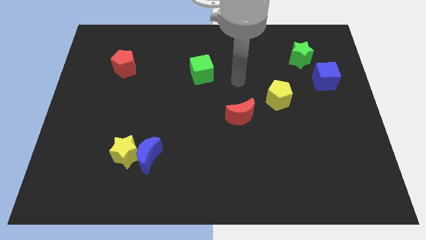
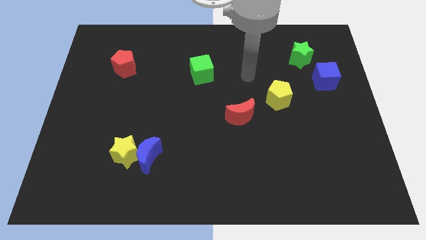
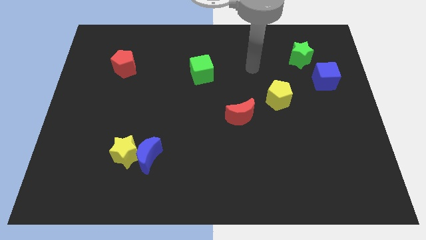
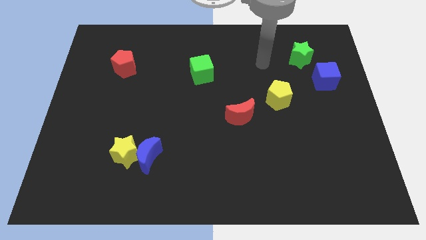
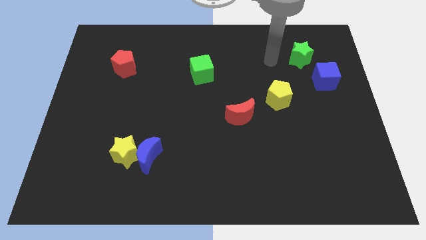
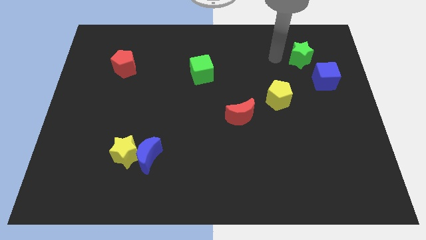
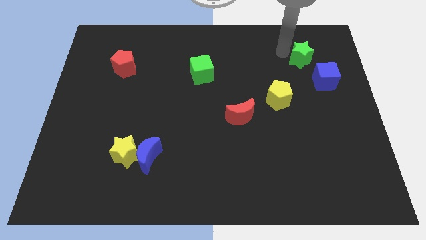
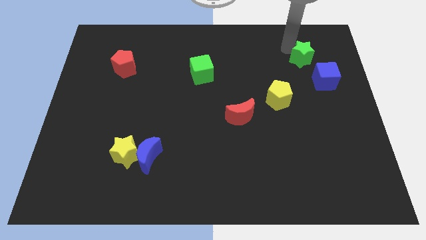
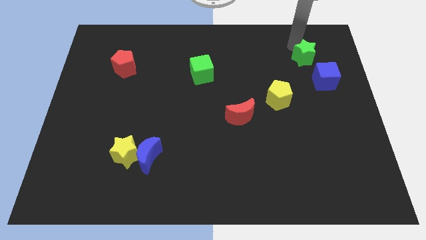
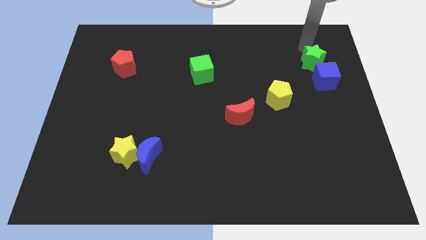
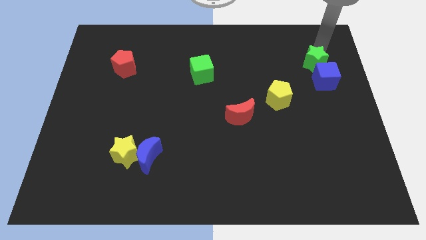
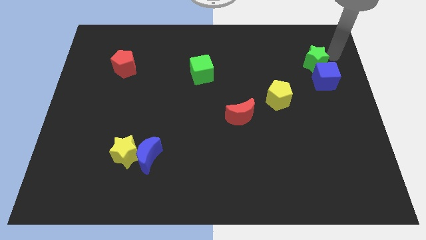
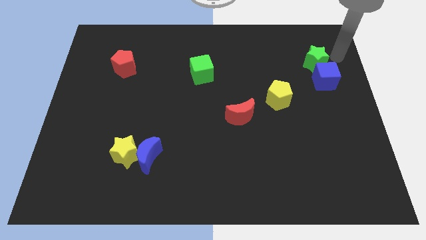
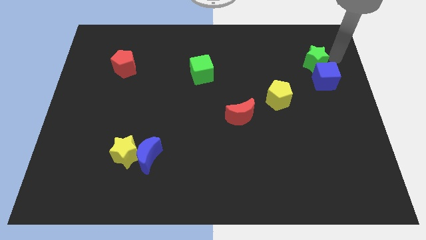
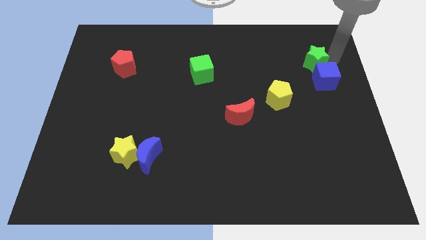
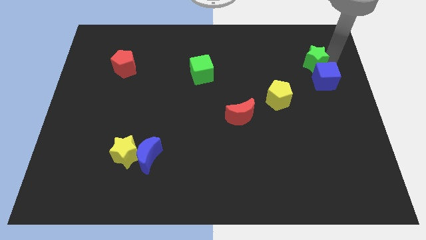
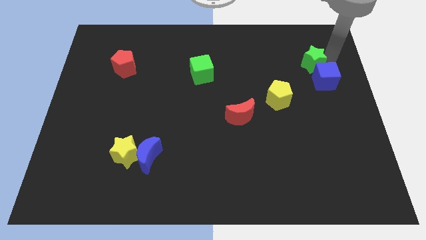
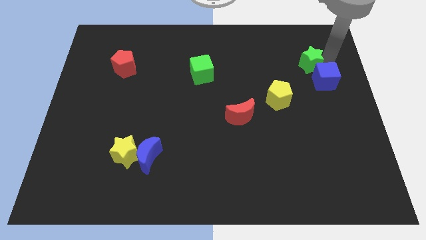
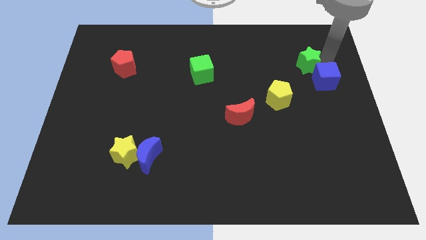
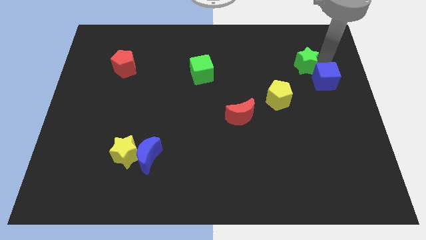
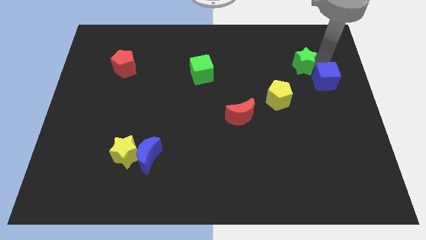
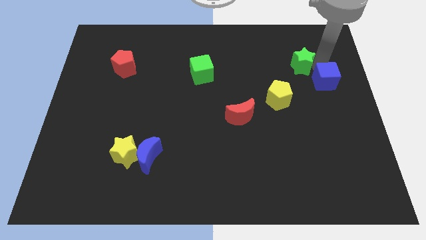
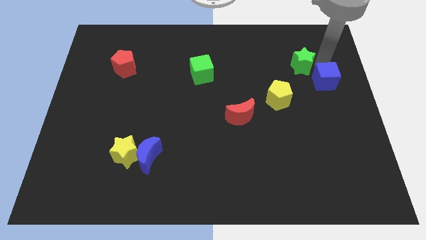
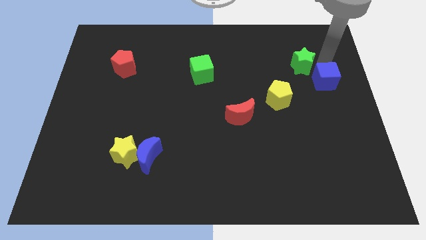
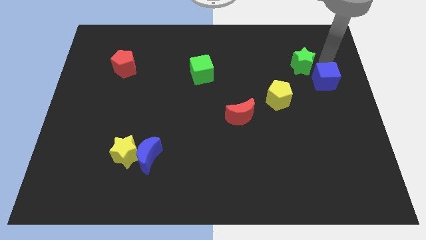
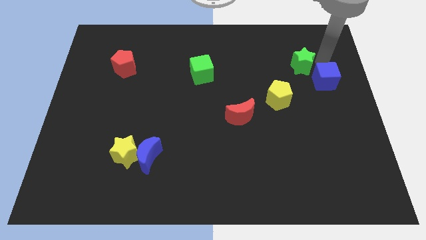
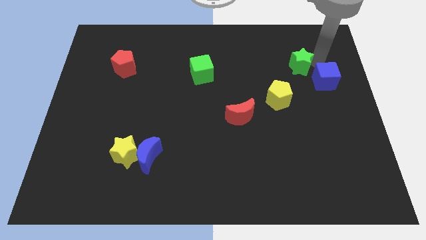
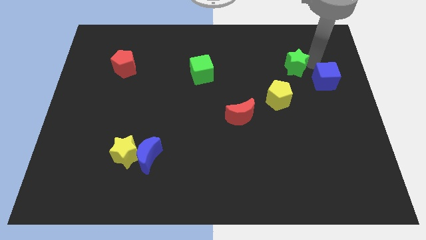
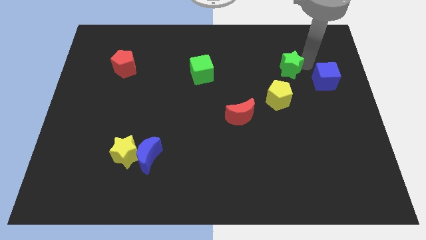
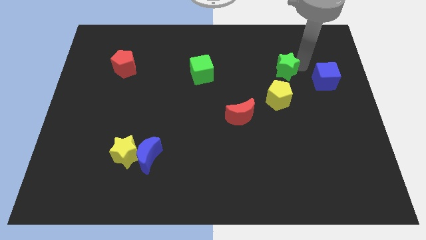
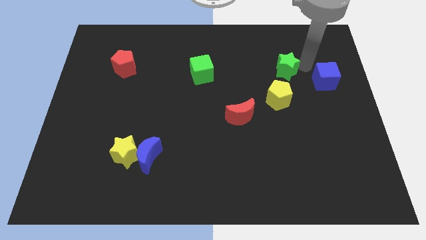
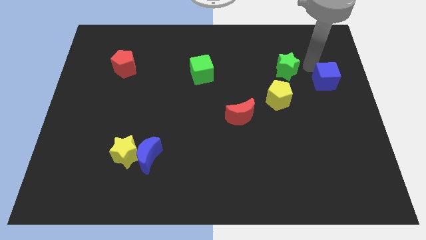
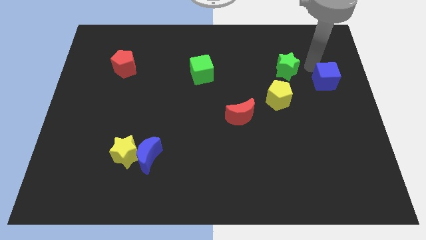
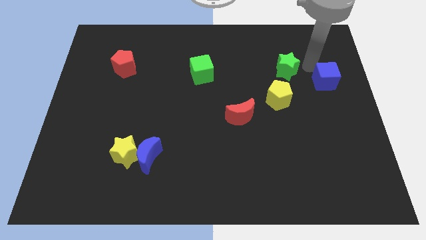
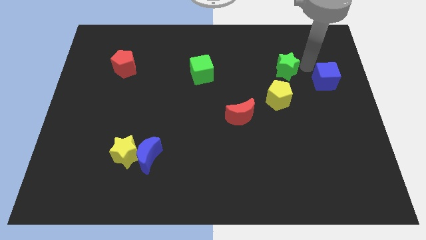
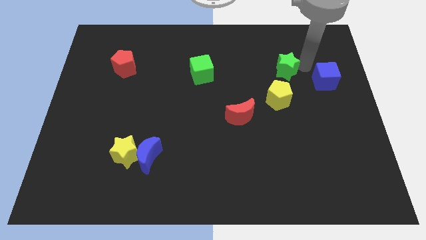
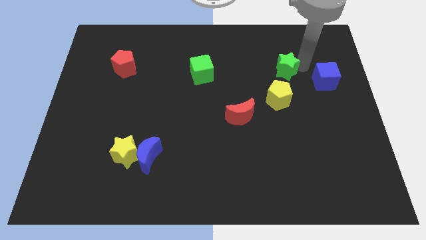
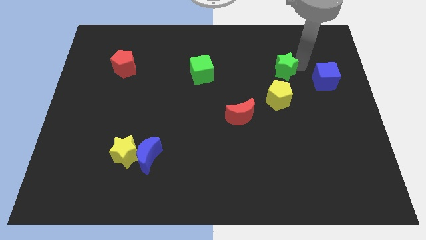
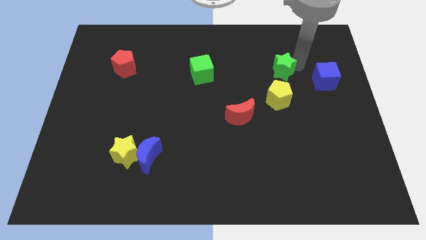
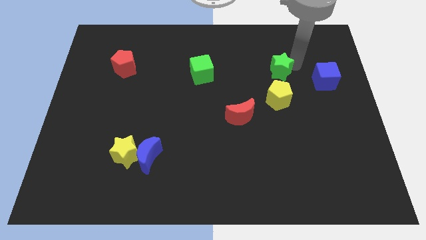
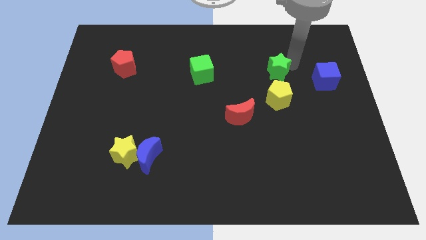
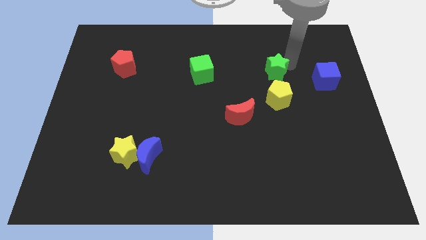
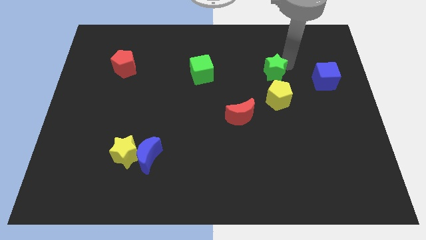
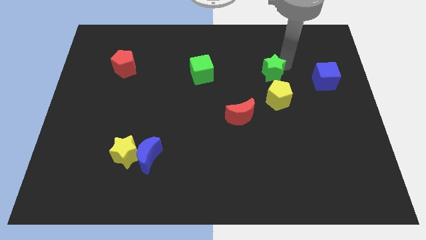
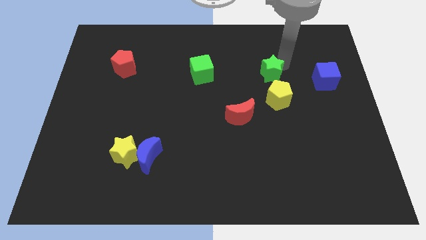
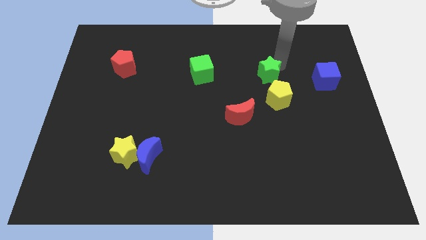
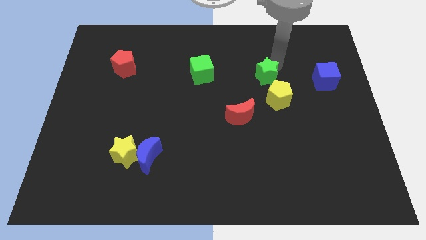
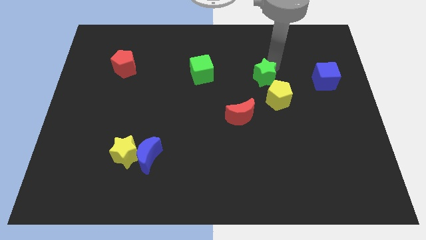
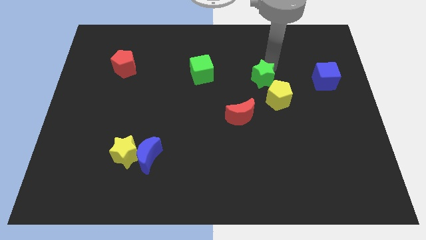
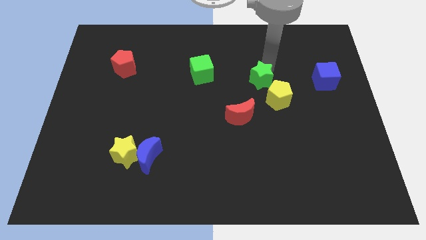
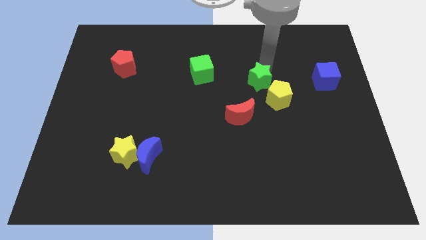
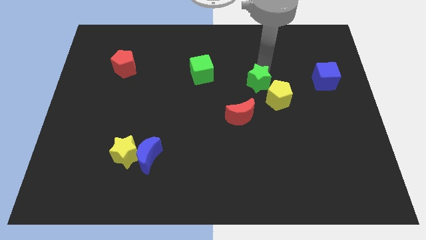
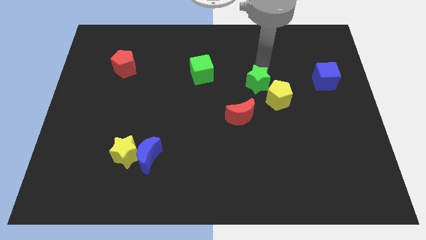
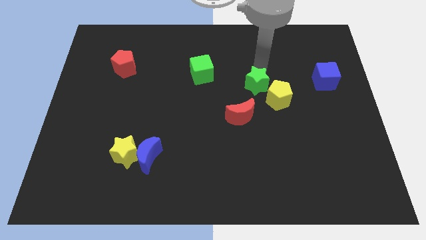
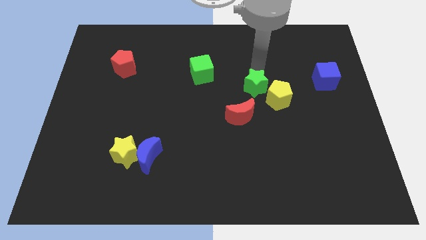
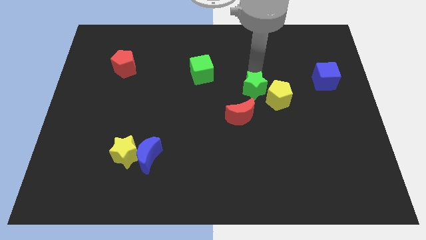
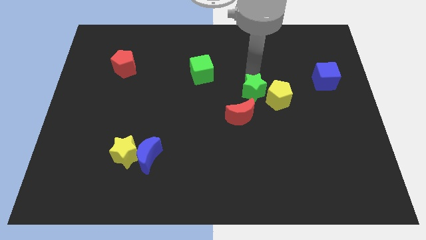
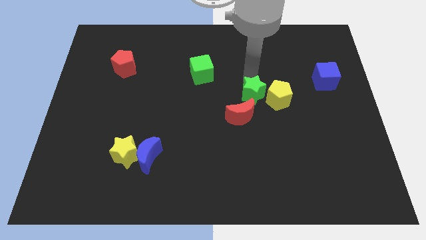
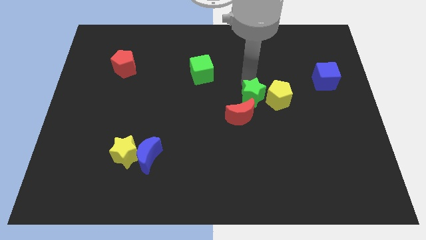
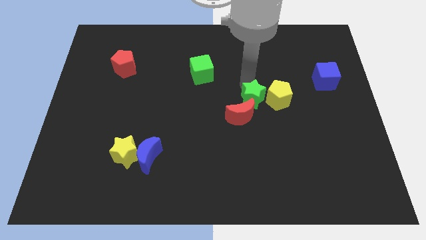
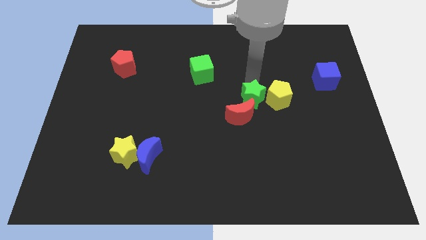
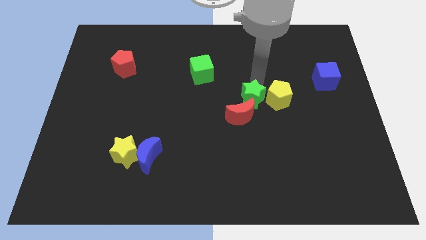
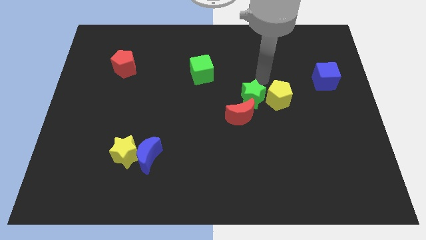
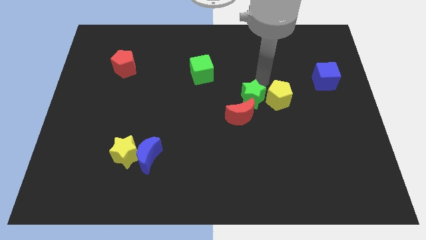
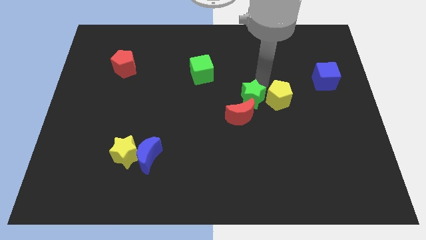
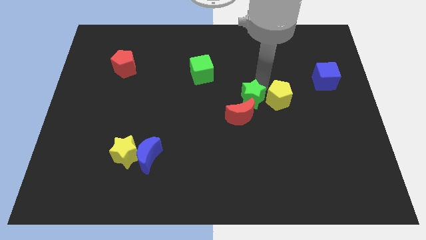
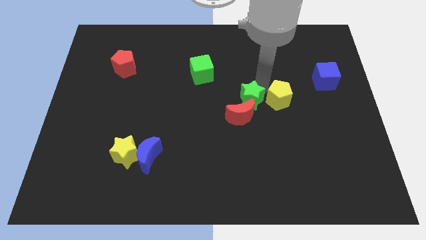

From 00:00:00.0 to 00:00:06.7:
move the green star towards the red moon
